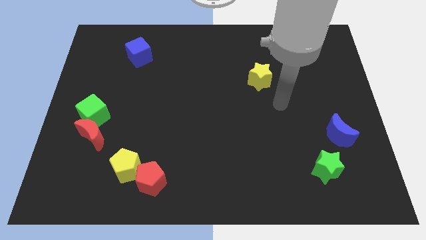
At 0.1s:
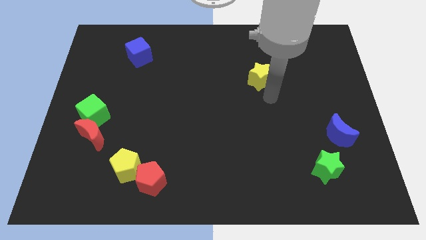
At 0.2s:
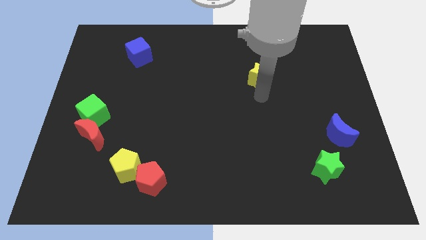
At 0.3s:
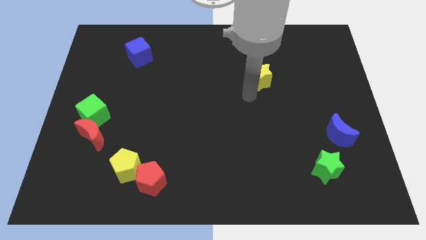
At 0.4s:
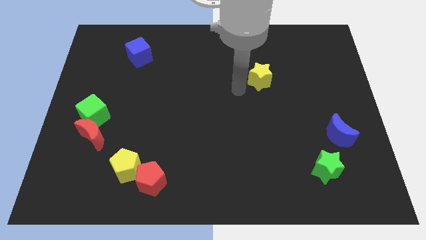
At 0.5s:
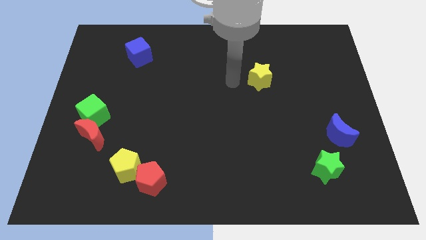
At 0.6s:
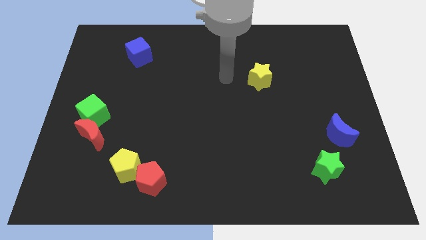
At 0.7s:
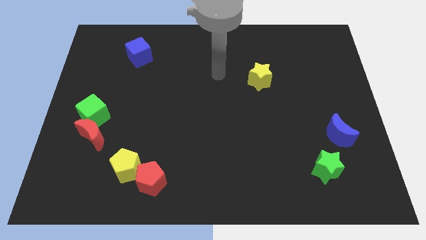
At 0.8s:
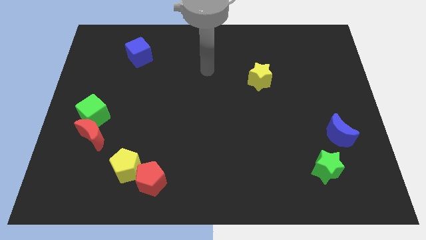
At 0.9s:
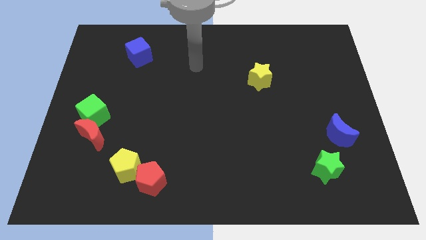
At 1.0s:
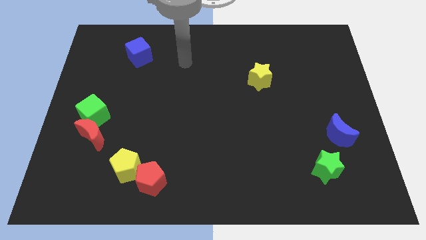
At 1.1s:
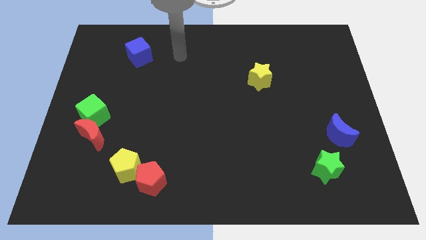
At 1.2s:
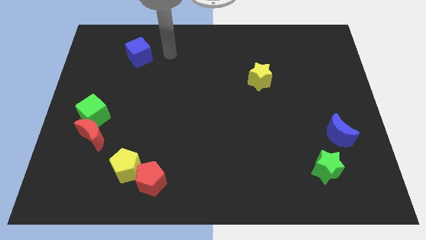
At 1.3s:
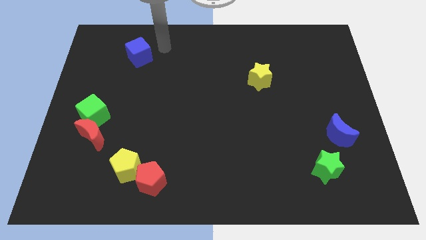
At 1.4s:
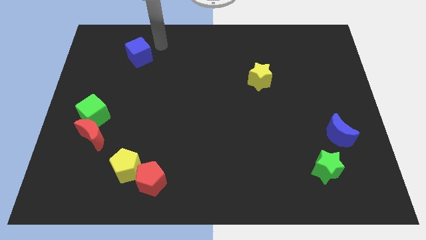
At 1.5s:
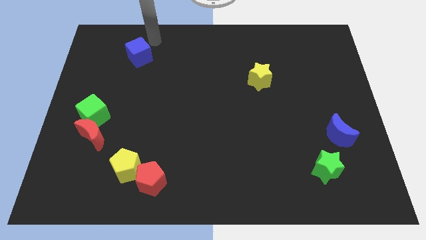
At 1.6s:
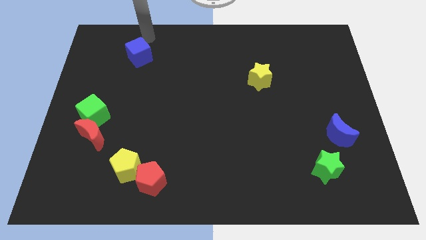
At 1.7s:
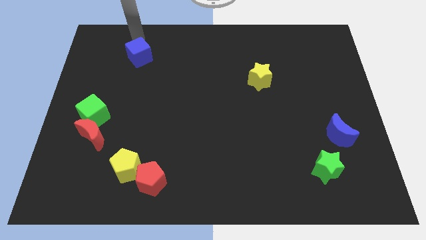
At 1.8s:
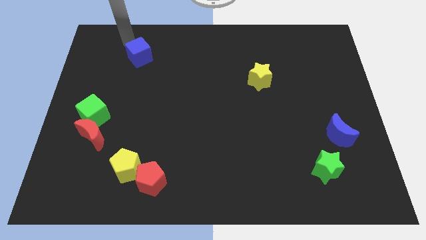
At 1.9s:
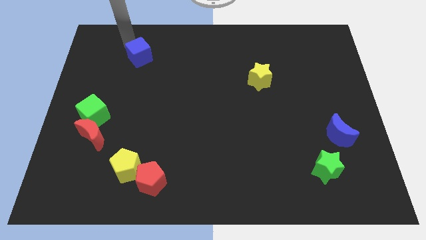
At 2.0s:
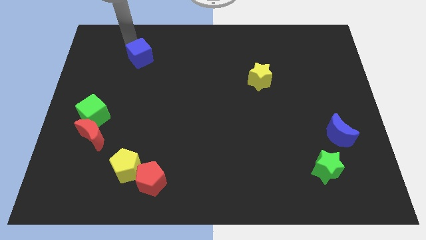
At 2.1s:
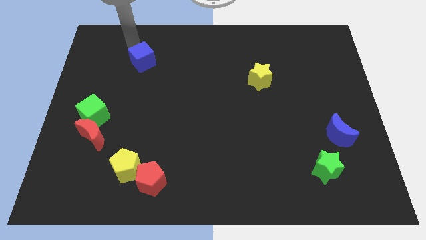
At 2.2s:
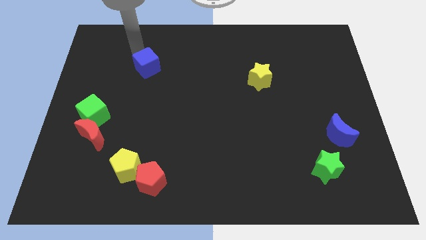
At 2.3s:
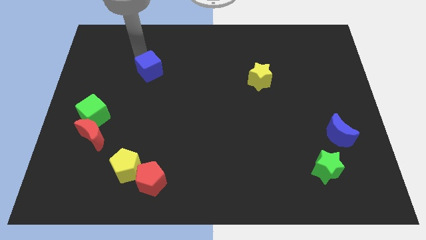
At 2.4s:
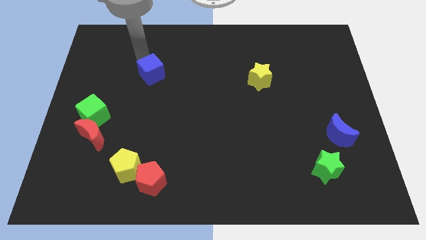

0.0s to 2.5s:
slide the blue cube a little down and right diagonally

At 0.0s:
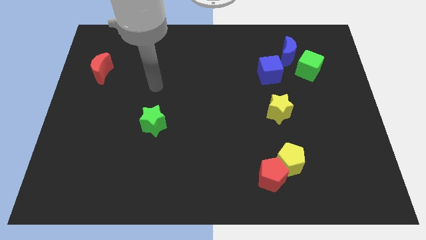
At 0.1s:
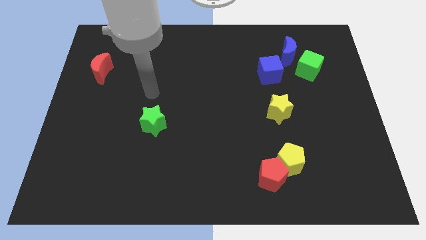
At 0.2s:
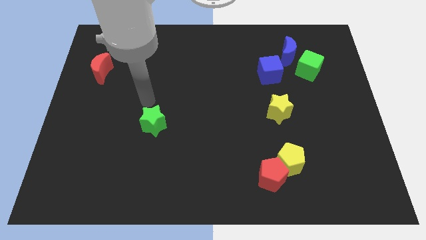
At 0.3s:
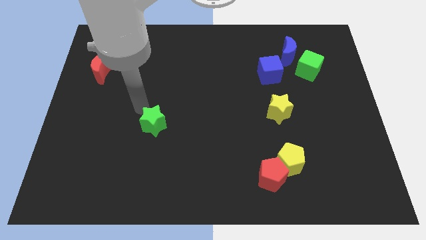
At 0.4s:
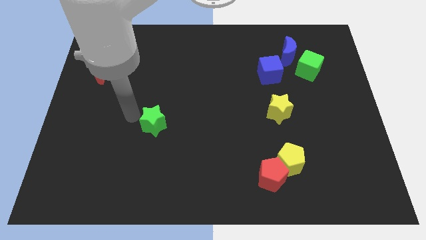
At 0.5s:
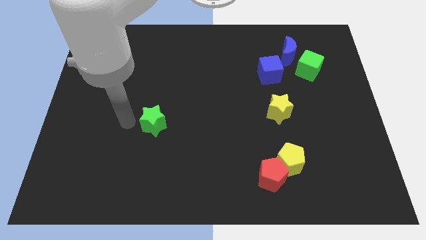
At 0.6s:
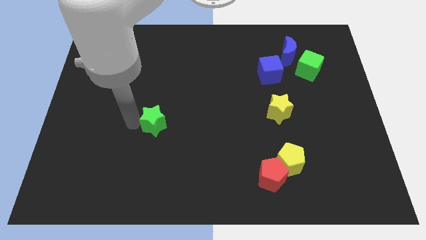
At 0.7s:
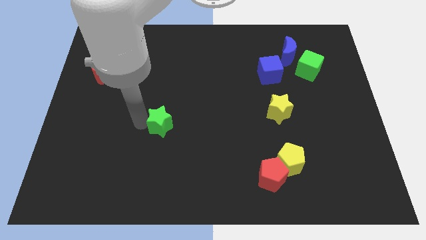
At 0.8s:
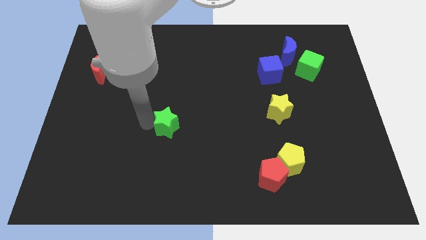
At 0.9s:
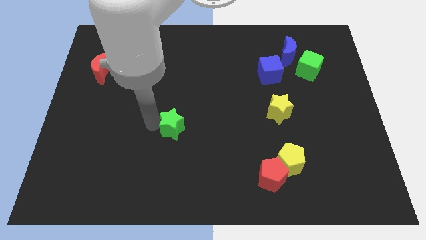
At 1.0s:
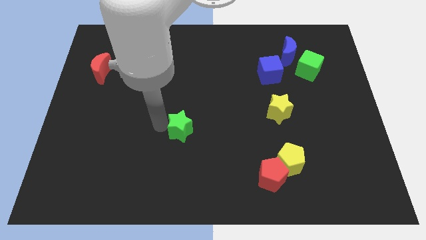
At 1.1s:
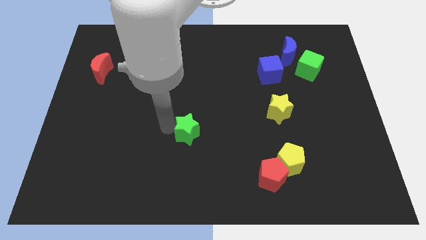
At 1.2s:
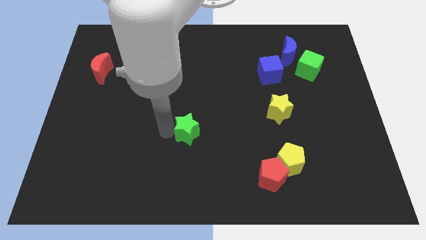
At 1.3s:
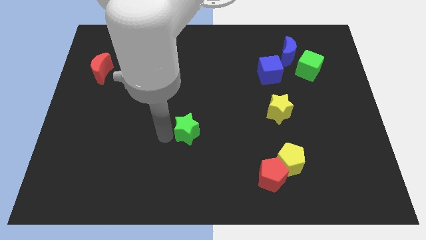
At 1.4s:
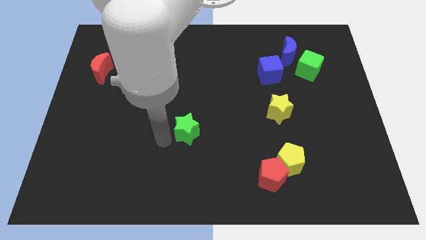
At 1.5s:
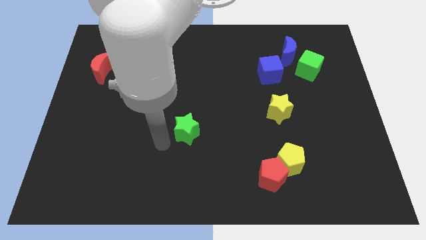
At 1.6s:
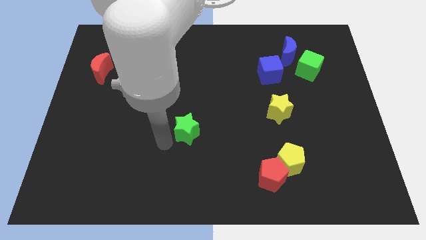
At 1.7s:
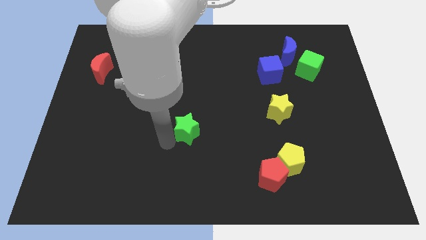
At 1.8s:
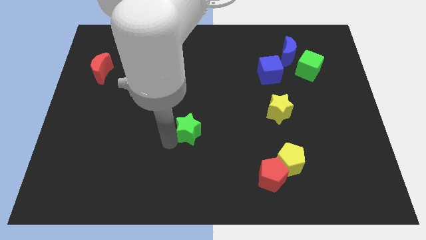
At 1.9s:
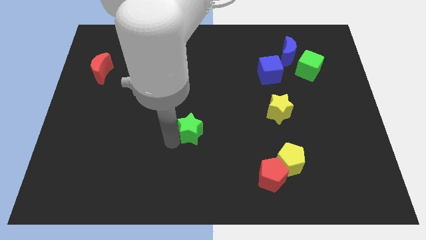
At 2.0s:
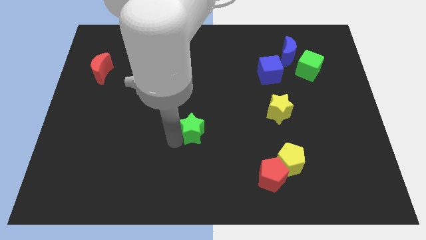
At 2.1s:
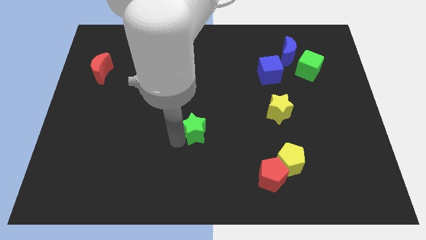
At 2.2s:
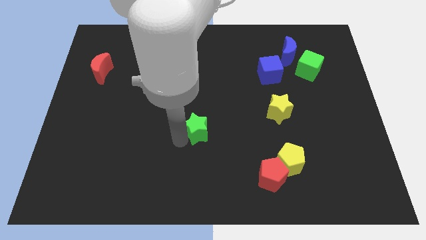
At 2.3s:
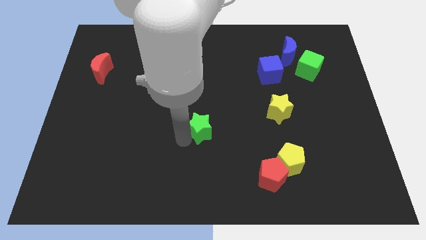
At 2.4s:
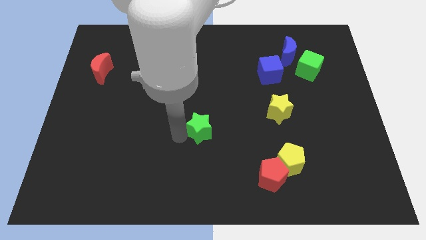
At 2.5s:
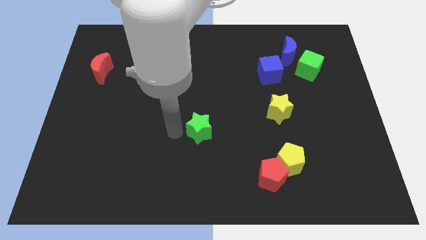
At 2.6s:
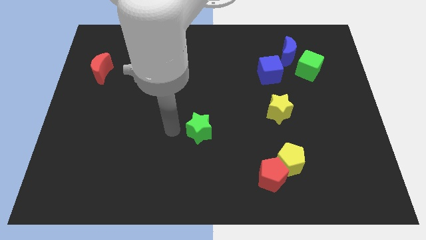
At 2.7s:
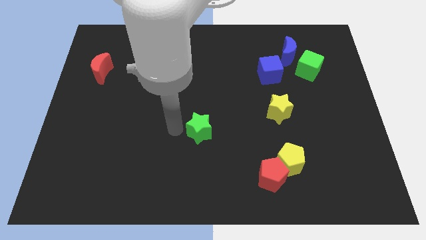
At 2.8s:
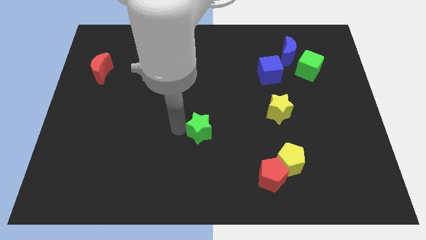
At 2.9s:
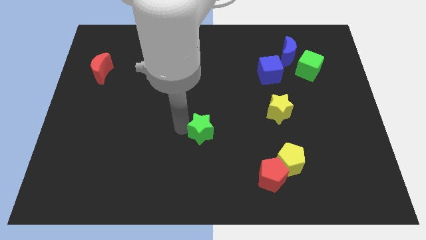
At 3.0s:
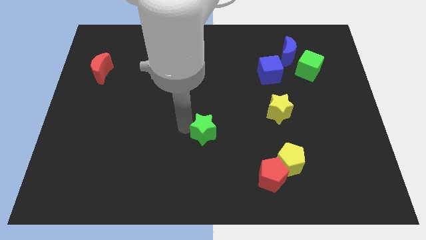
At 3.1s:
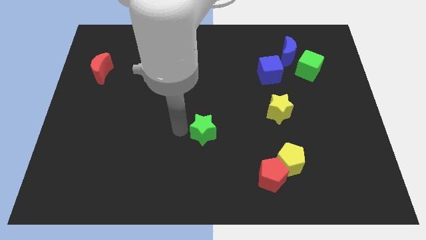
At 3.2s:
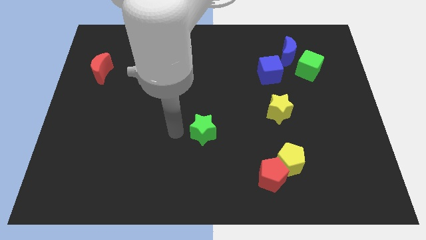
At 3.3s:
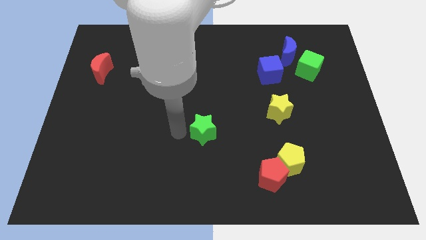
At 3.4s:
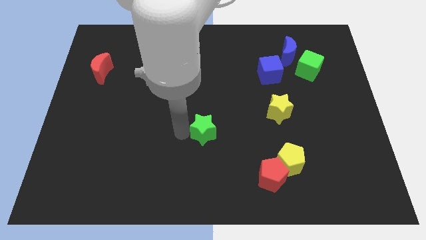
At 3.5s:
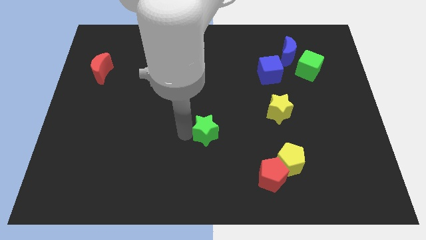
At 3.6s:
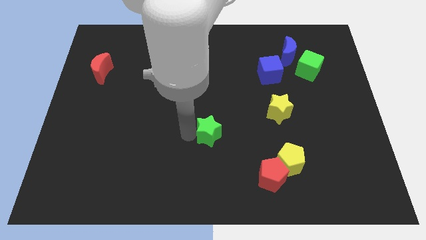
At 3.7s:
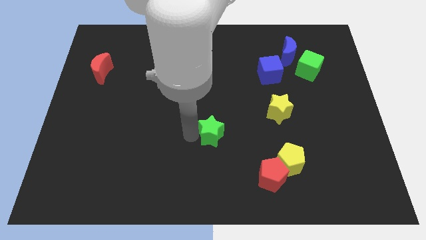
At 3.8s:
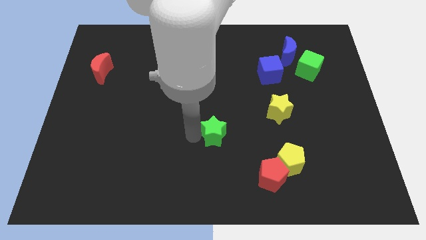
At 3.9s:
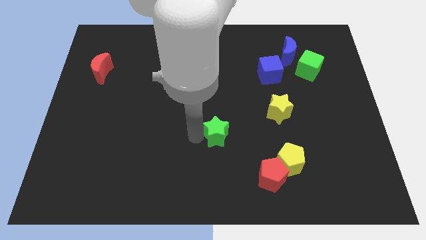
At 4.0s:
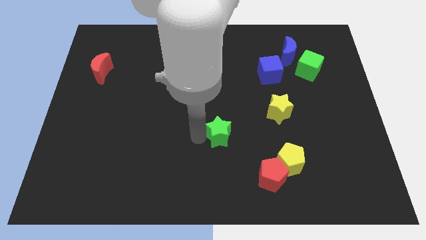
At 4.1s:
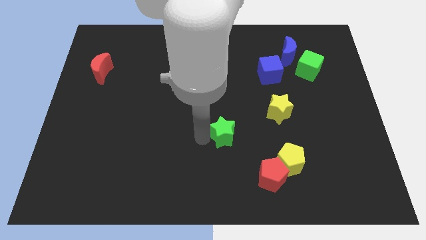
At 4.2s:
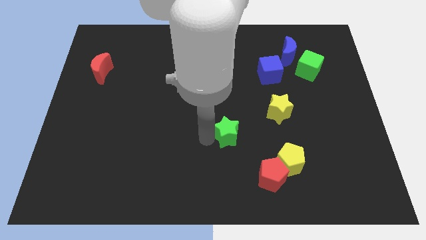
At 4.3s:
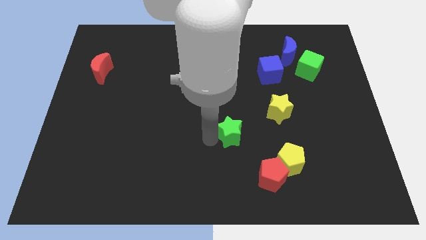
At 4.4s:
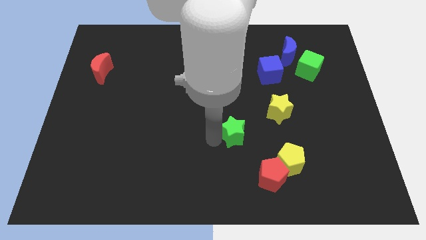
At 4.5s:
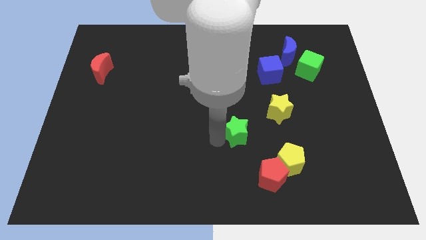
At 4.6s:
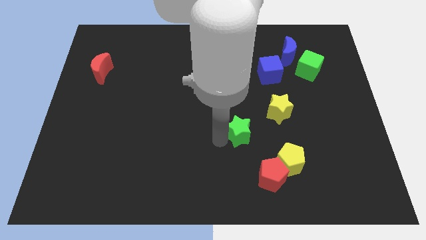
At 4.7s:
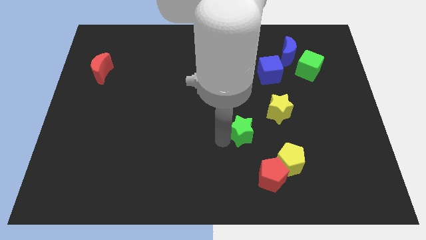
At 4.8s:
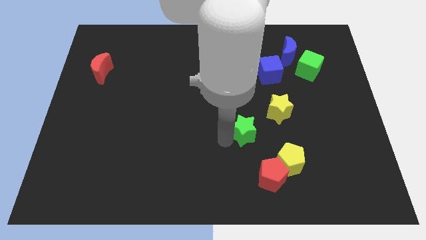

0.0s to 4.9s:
slide the green star to the right

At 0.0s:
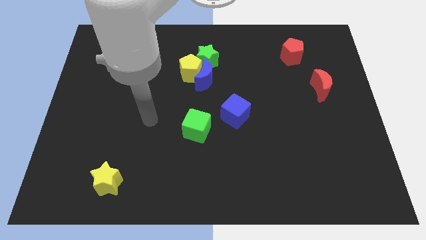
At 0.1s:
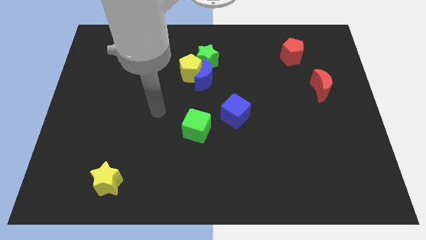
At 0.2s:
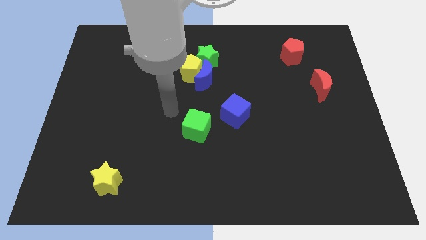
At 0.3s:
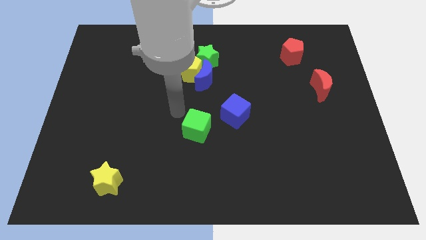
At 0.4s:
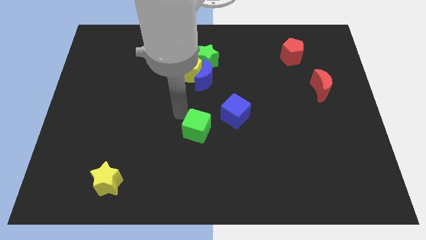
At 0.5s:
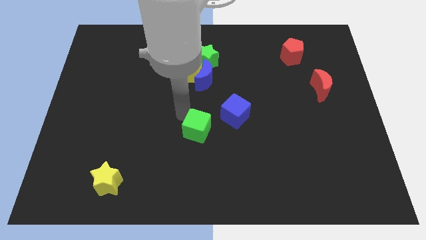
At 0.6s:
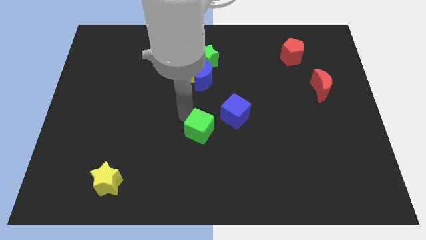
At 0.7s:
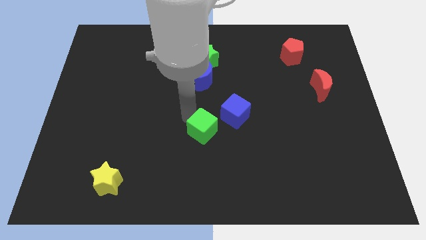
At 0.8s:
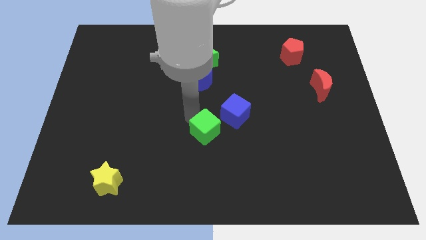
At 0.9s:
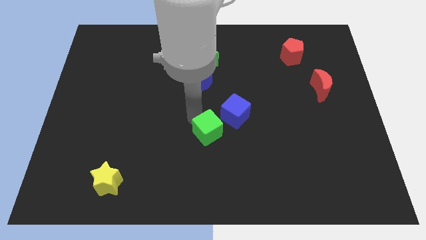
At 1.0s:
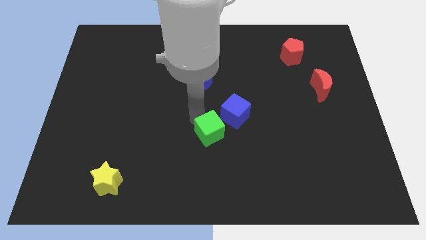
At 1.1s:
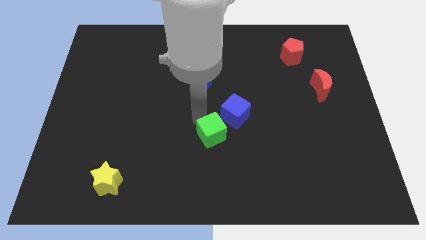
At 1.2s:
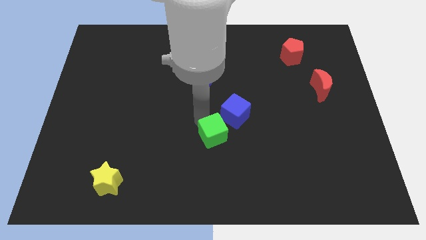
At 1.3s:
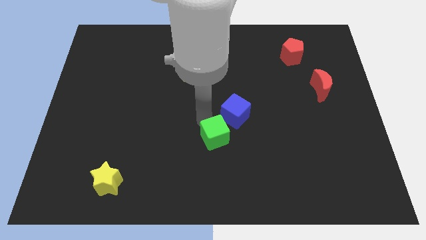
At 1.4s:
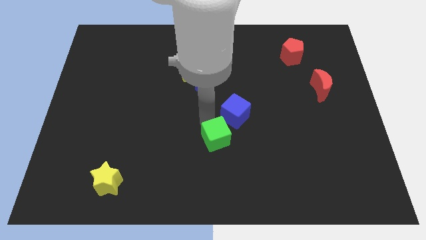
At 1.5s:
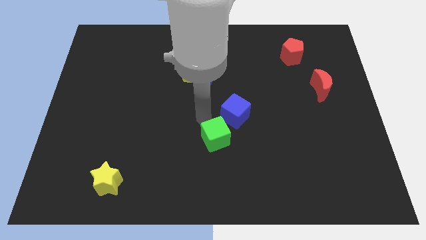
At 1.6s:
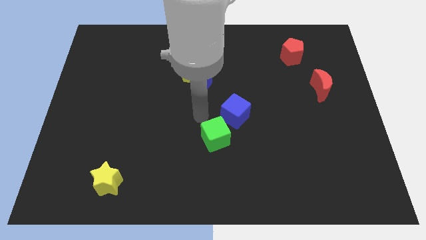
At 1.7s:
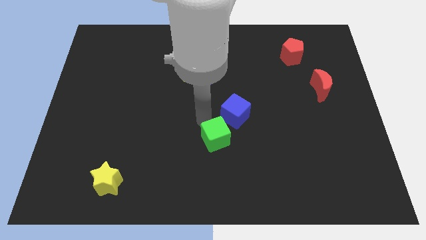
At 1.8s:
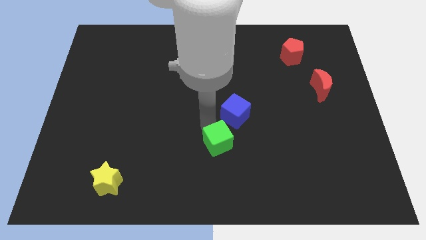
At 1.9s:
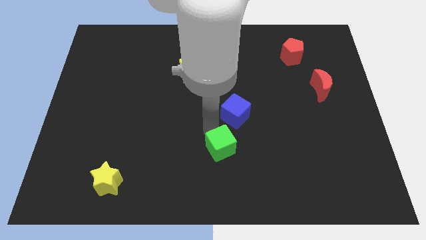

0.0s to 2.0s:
slide the green cube slightly down and to the right
